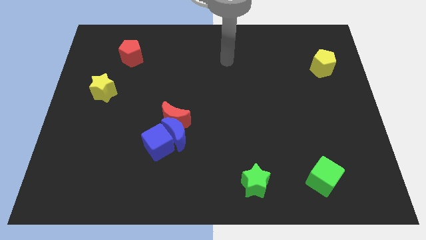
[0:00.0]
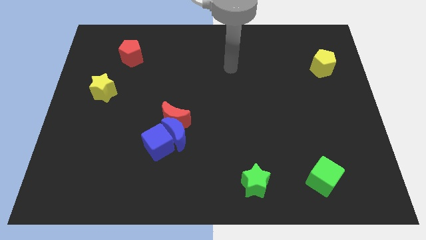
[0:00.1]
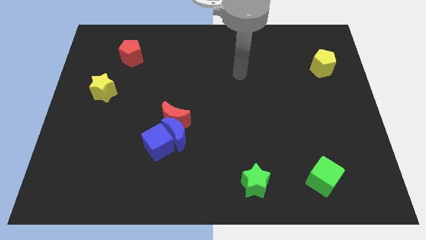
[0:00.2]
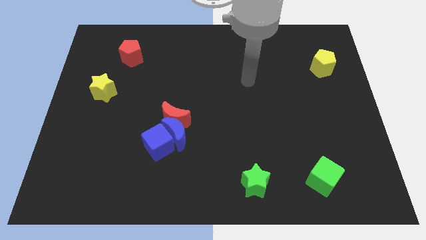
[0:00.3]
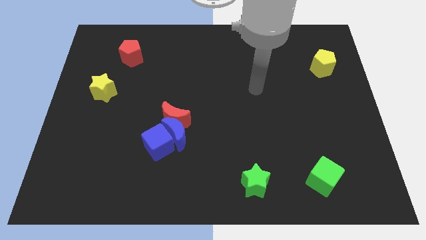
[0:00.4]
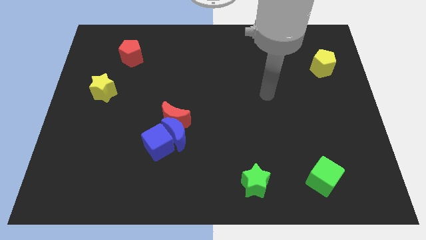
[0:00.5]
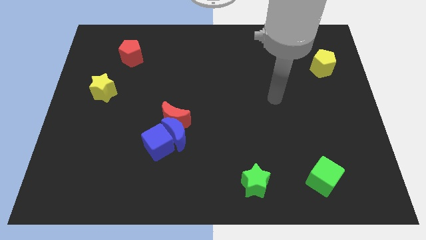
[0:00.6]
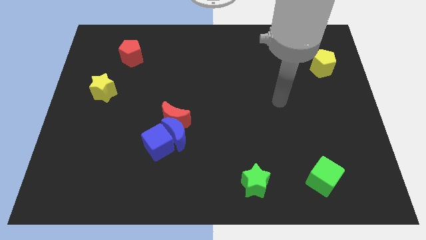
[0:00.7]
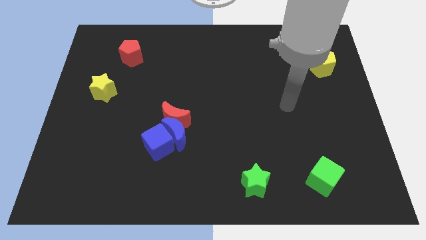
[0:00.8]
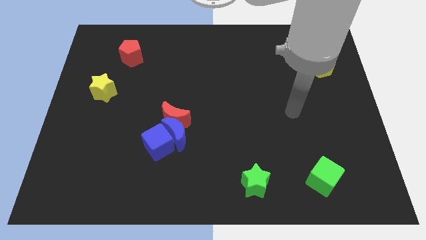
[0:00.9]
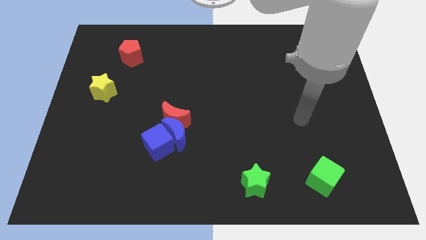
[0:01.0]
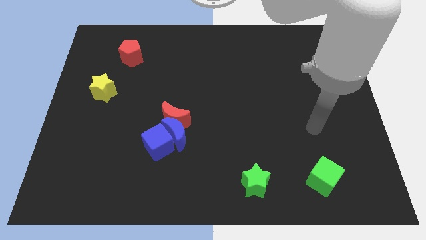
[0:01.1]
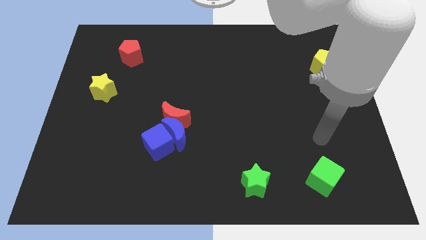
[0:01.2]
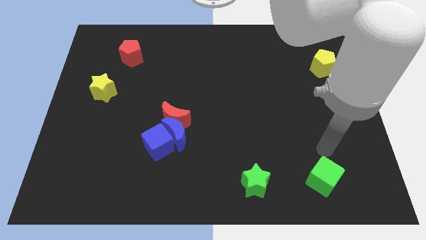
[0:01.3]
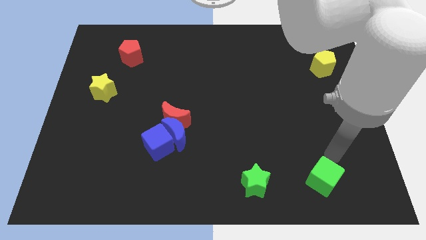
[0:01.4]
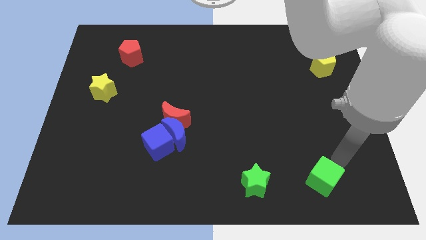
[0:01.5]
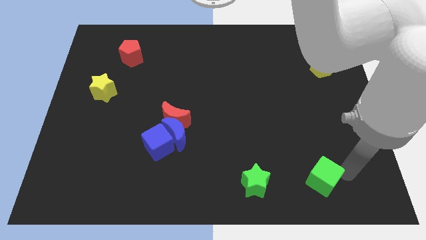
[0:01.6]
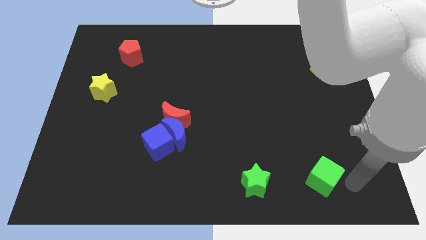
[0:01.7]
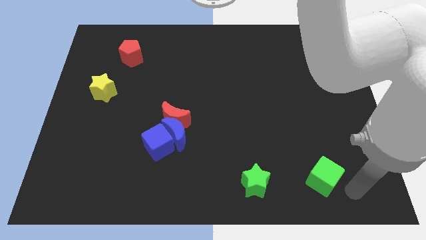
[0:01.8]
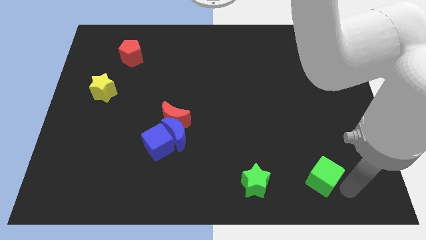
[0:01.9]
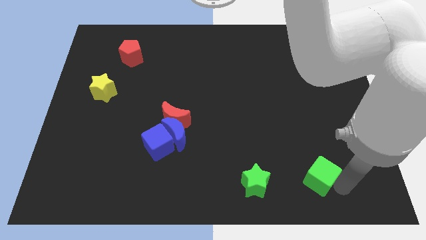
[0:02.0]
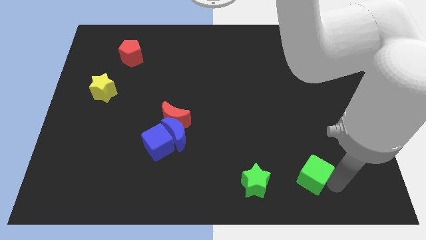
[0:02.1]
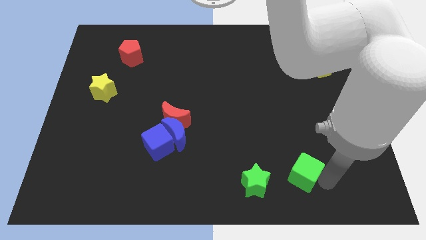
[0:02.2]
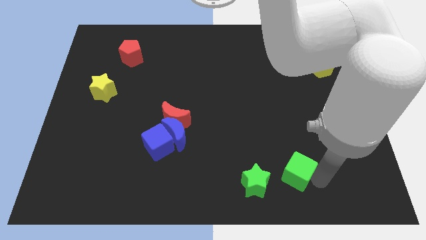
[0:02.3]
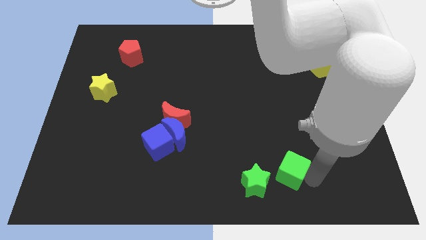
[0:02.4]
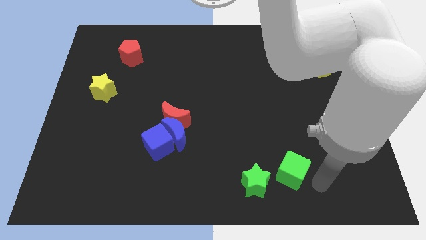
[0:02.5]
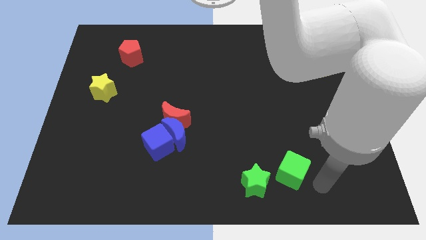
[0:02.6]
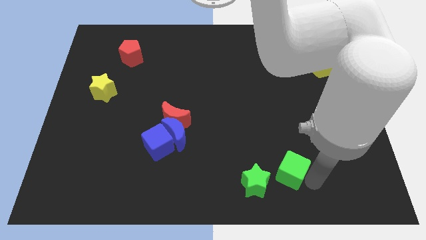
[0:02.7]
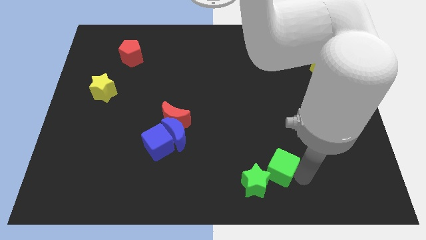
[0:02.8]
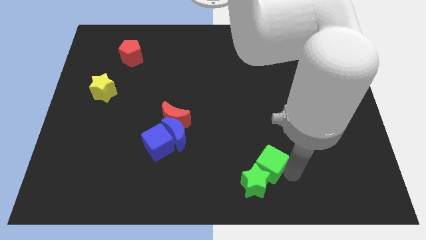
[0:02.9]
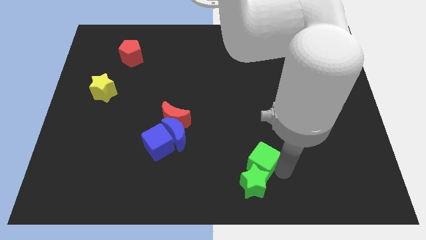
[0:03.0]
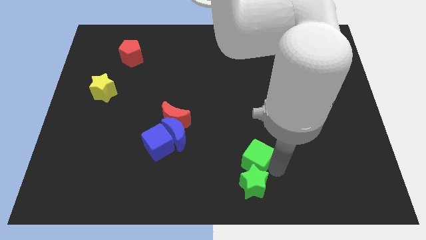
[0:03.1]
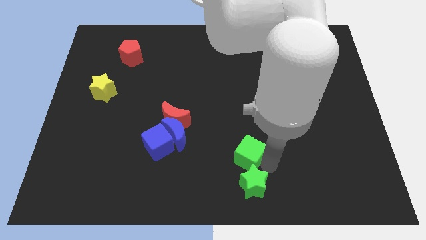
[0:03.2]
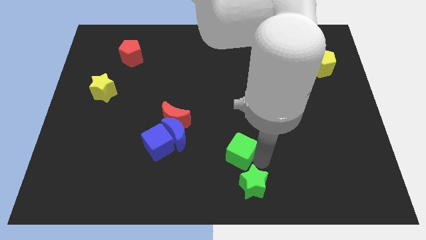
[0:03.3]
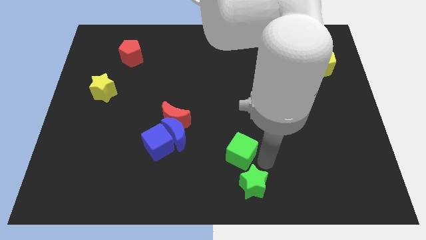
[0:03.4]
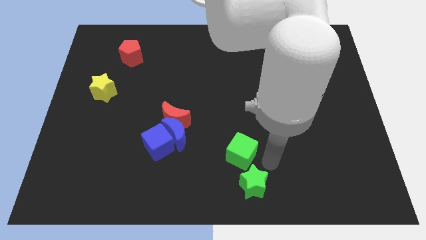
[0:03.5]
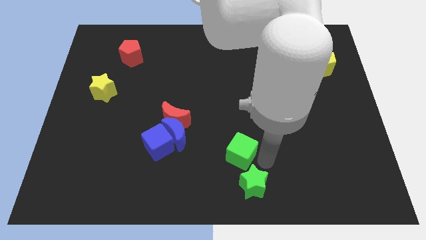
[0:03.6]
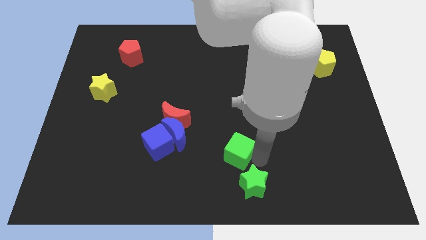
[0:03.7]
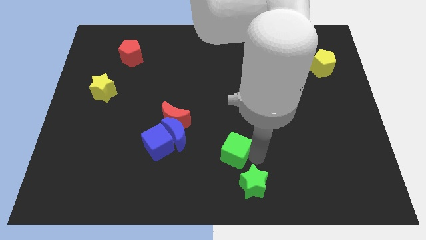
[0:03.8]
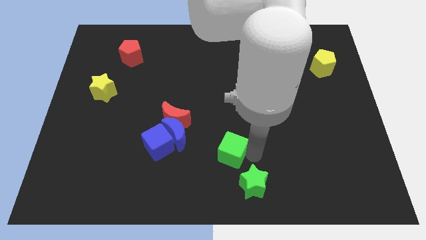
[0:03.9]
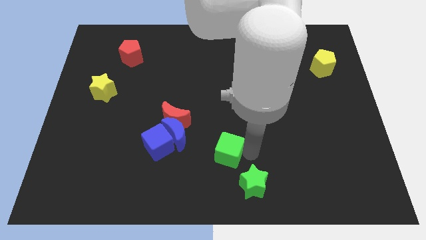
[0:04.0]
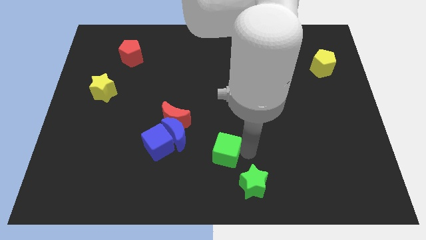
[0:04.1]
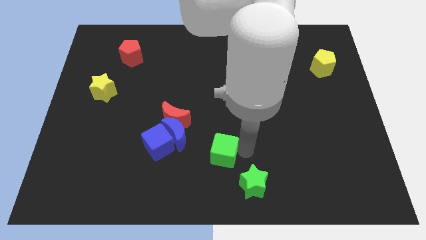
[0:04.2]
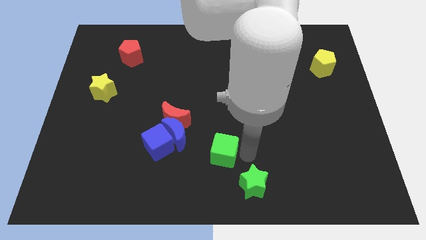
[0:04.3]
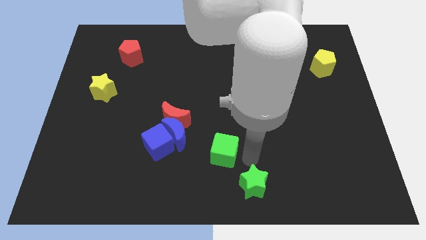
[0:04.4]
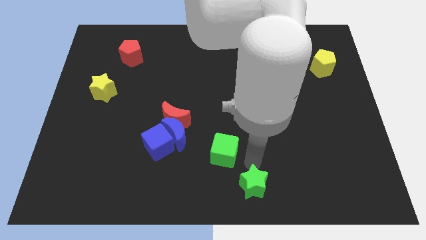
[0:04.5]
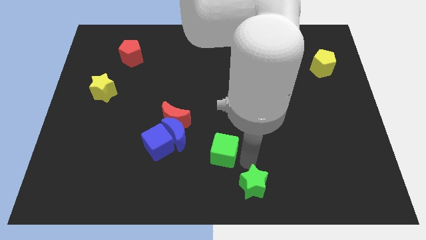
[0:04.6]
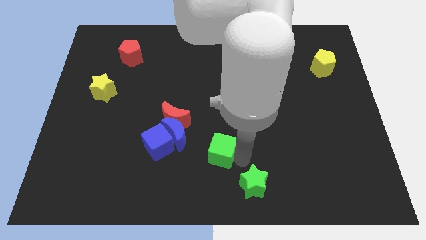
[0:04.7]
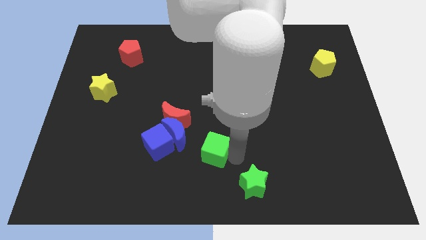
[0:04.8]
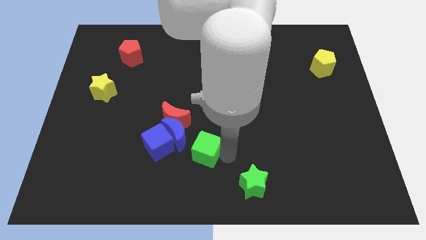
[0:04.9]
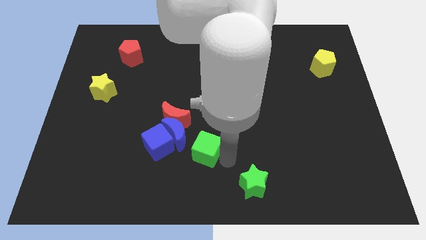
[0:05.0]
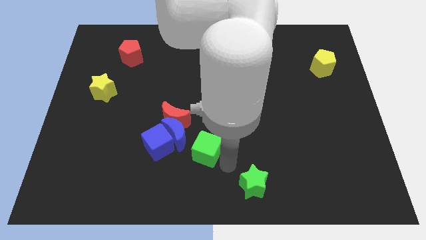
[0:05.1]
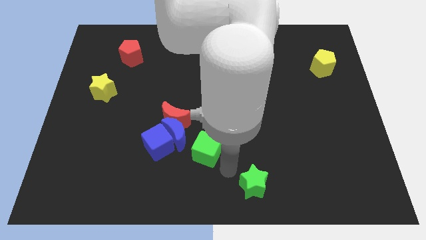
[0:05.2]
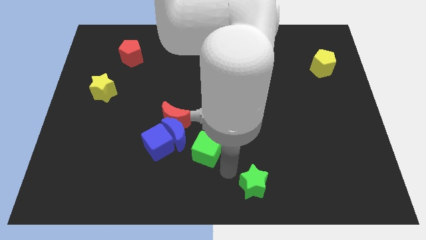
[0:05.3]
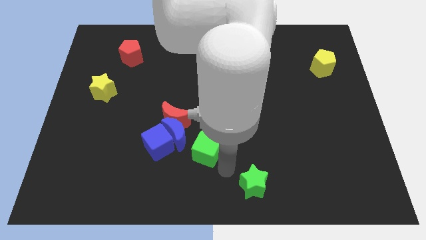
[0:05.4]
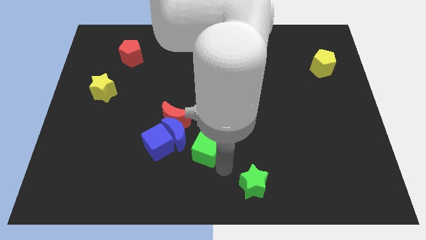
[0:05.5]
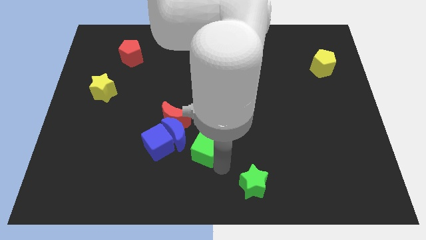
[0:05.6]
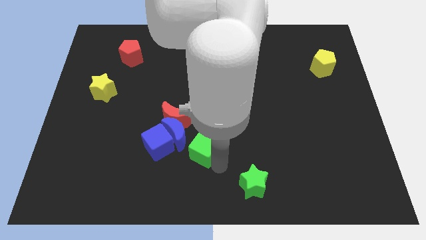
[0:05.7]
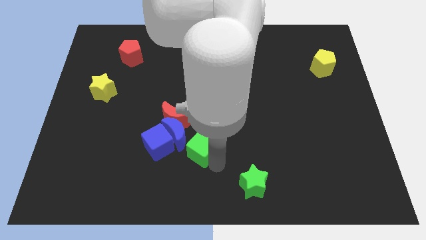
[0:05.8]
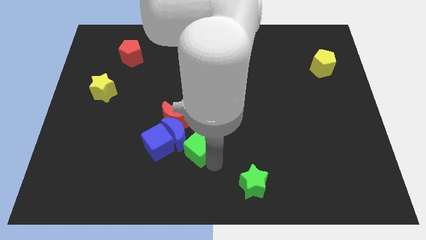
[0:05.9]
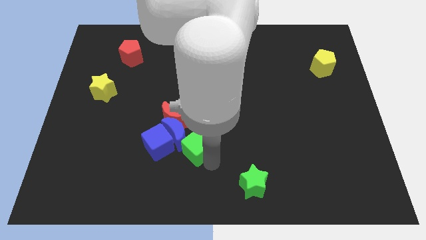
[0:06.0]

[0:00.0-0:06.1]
push the green cube towards the blue moon

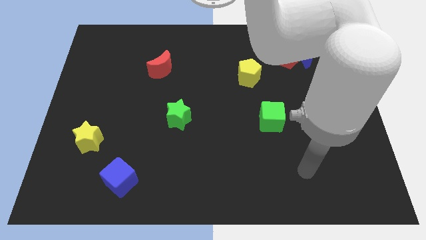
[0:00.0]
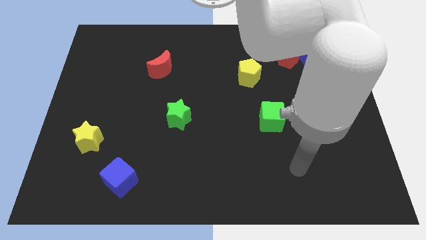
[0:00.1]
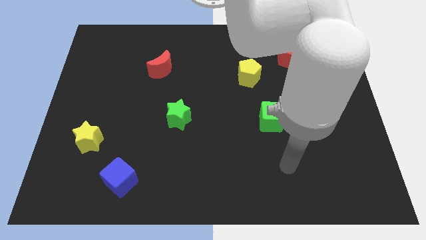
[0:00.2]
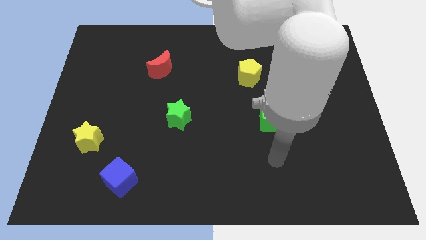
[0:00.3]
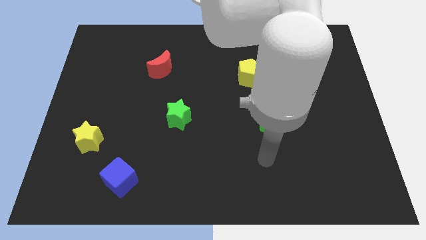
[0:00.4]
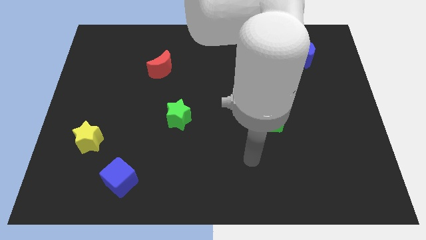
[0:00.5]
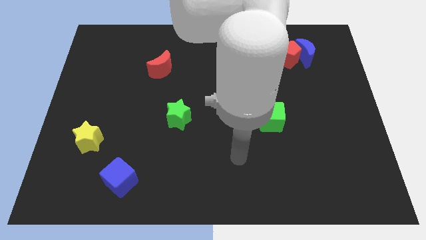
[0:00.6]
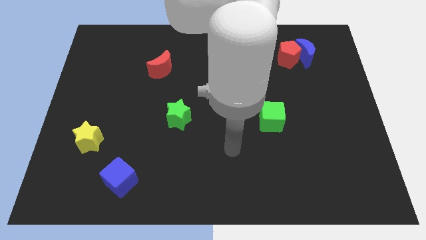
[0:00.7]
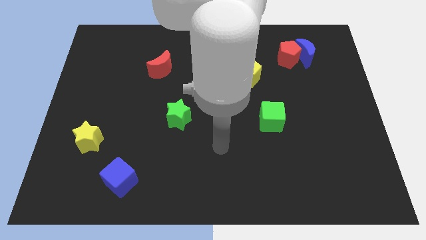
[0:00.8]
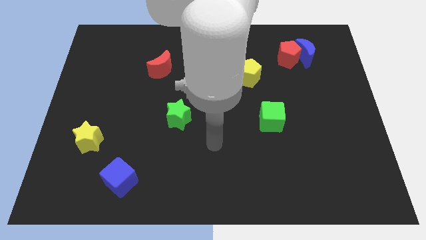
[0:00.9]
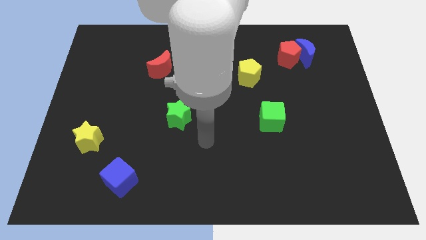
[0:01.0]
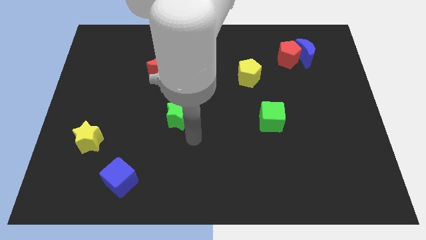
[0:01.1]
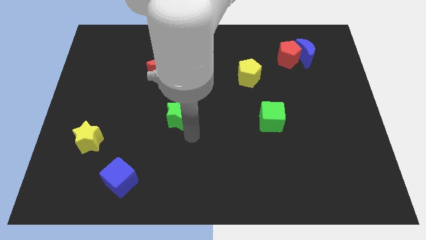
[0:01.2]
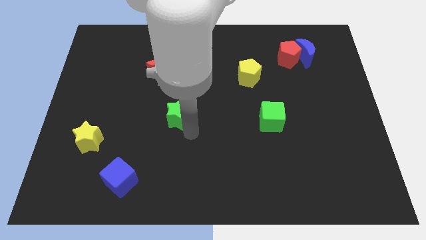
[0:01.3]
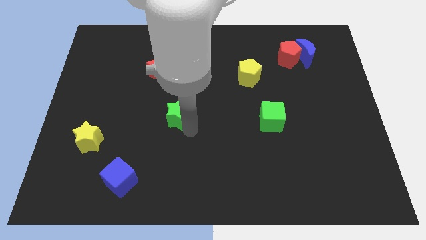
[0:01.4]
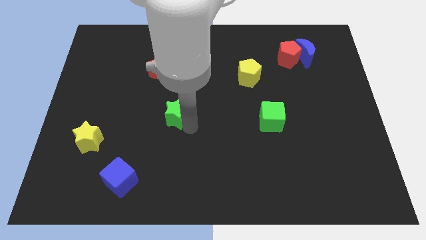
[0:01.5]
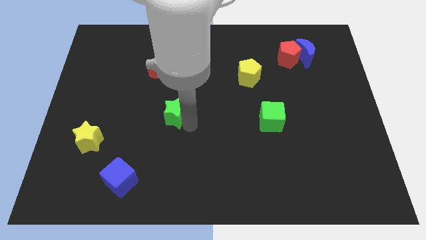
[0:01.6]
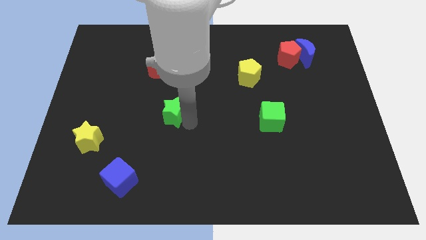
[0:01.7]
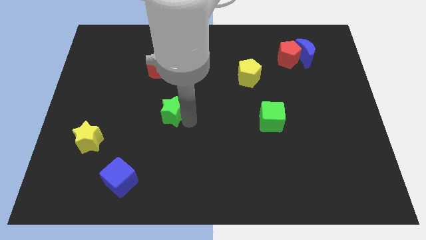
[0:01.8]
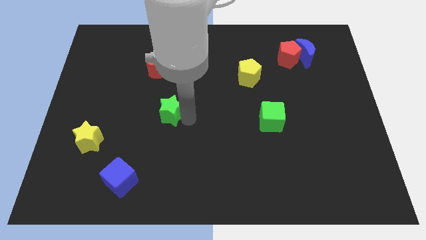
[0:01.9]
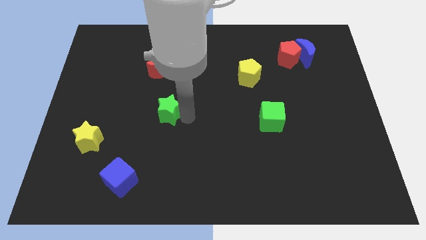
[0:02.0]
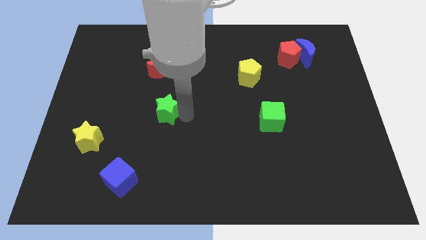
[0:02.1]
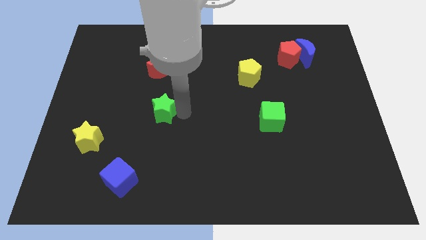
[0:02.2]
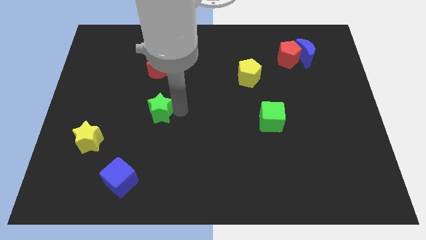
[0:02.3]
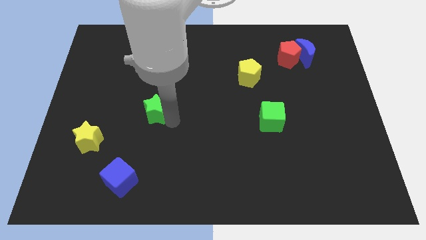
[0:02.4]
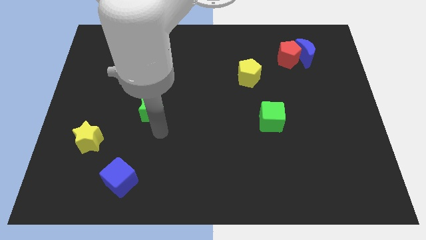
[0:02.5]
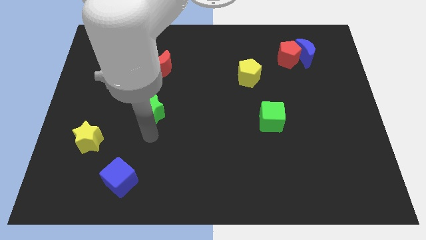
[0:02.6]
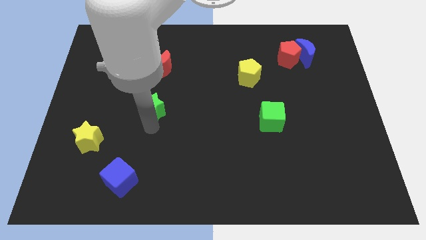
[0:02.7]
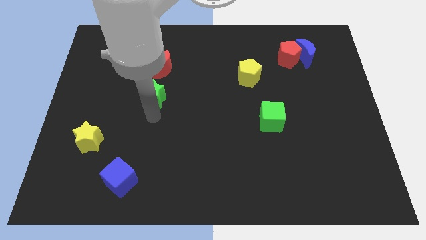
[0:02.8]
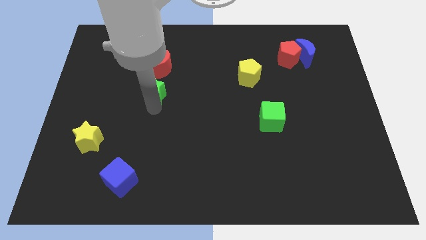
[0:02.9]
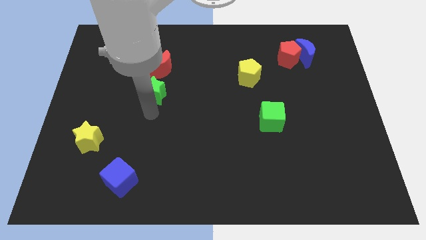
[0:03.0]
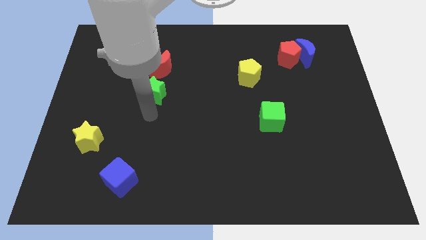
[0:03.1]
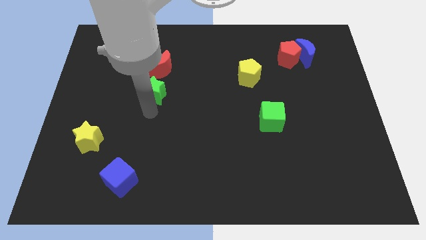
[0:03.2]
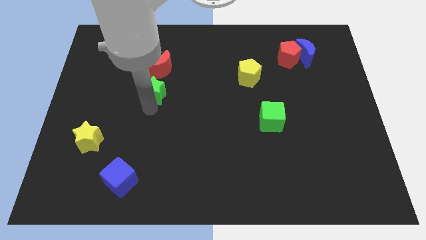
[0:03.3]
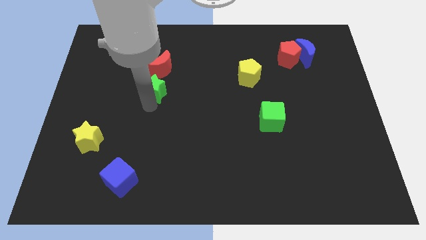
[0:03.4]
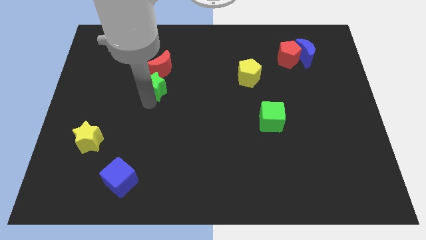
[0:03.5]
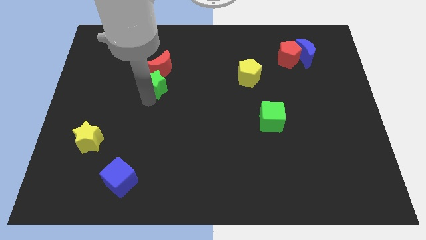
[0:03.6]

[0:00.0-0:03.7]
move the green star towards the red moon
